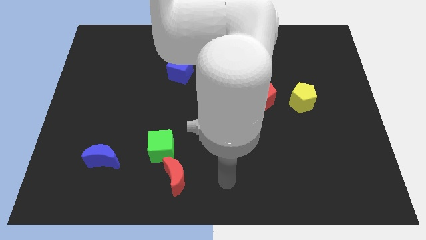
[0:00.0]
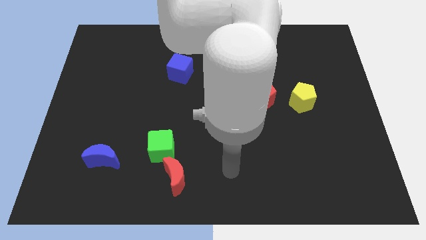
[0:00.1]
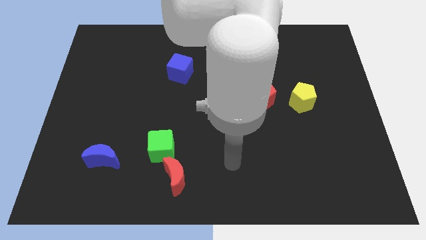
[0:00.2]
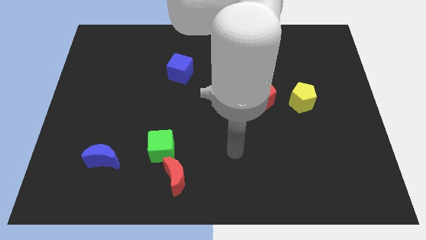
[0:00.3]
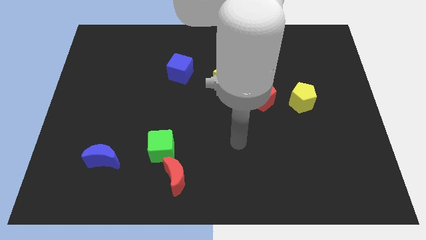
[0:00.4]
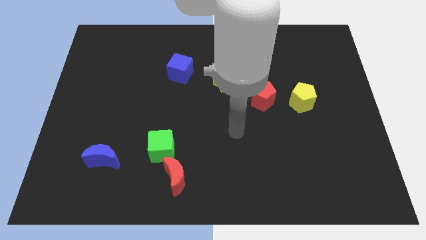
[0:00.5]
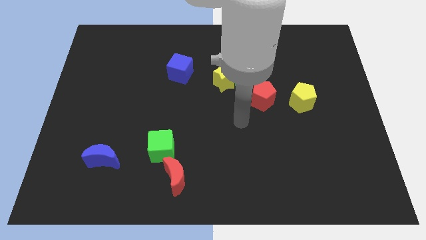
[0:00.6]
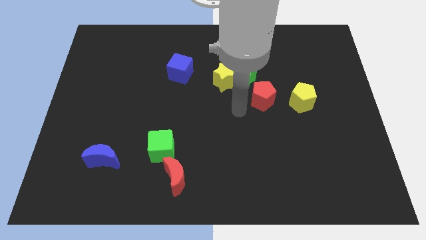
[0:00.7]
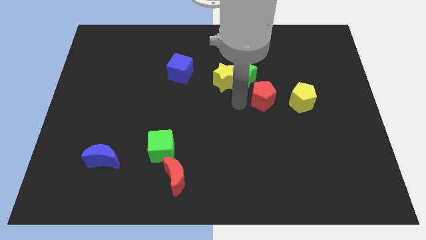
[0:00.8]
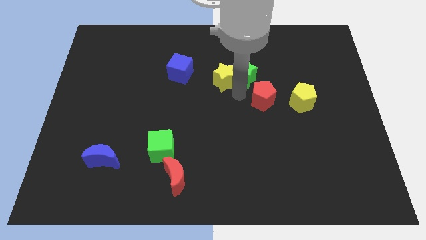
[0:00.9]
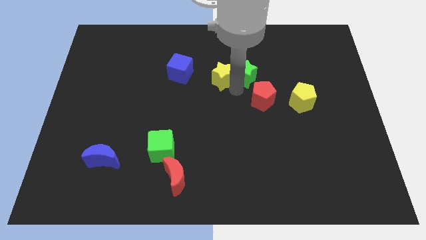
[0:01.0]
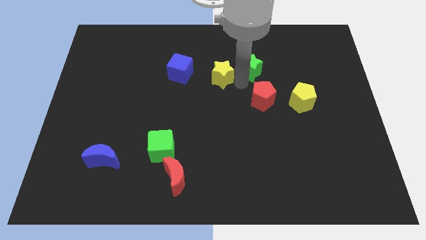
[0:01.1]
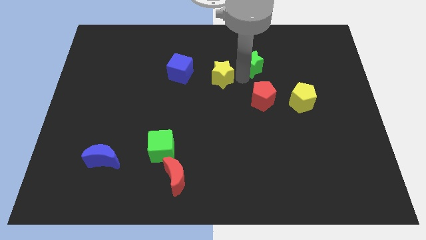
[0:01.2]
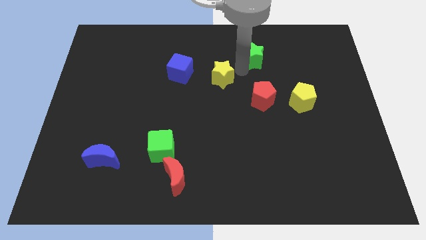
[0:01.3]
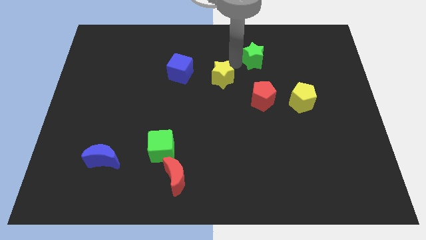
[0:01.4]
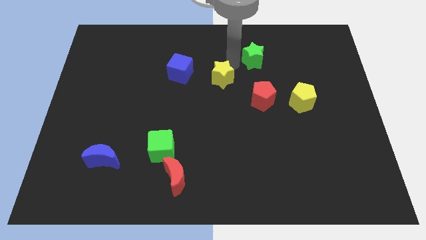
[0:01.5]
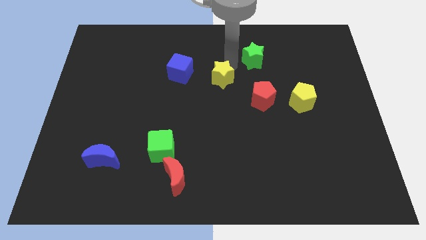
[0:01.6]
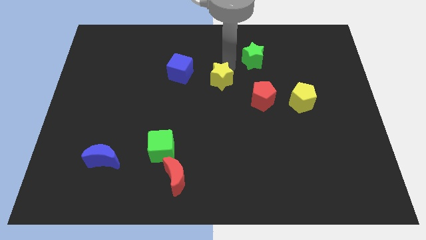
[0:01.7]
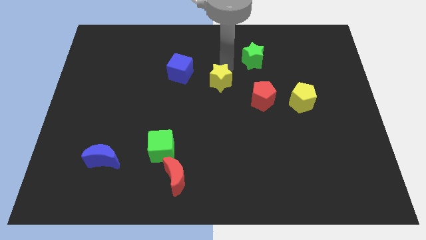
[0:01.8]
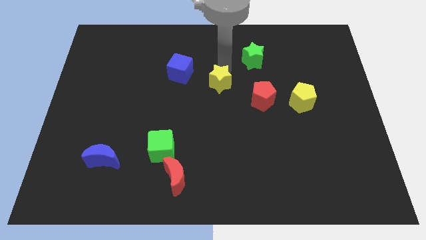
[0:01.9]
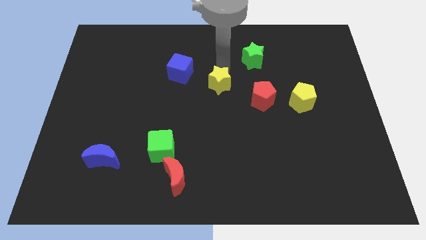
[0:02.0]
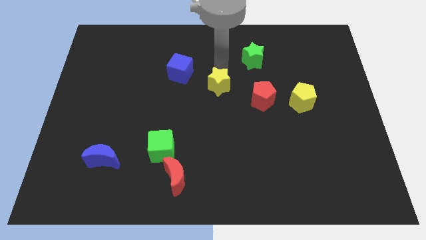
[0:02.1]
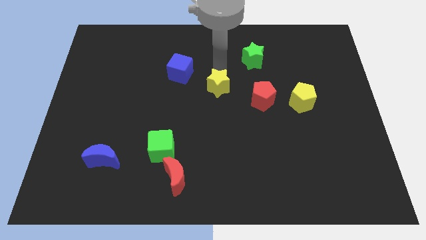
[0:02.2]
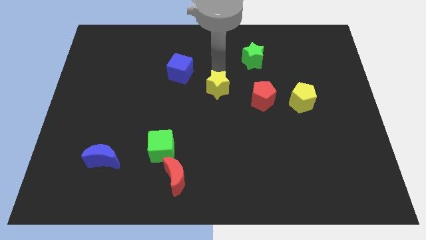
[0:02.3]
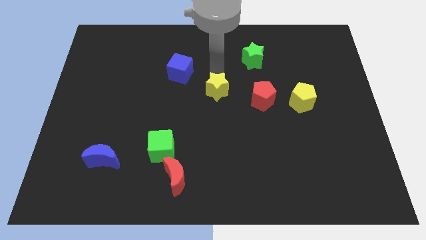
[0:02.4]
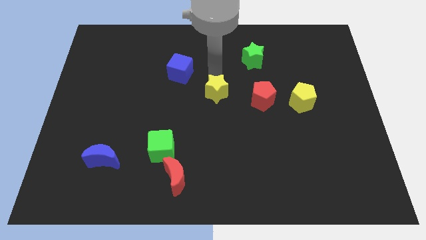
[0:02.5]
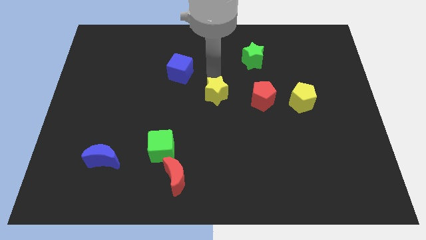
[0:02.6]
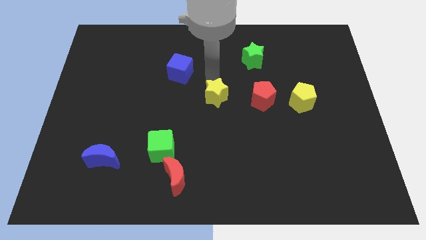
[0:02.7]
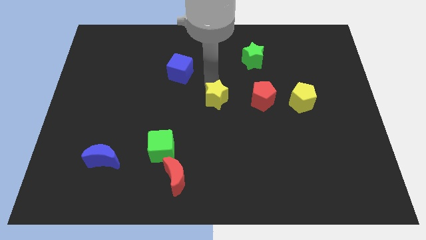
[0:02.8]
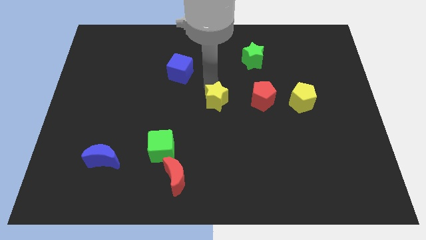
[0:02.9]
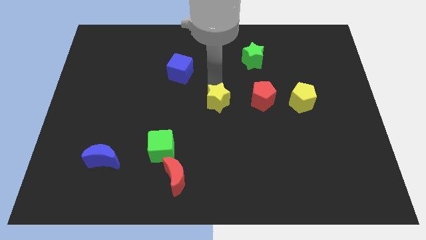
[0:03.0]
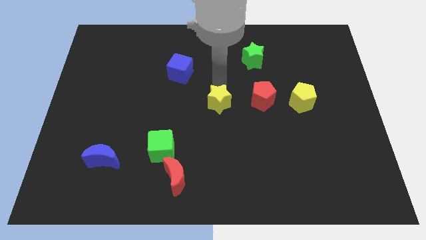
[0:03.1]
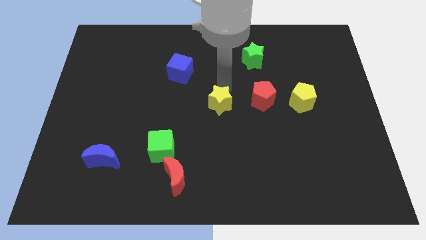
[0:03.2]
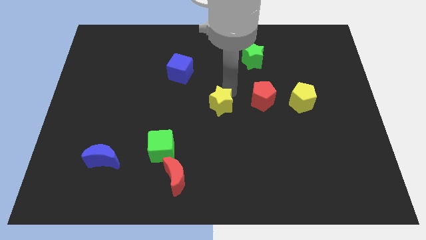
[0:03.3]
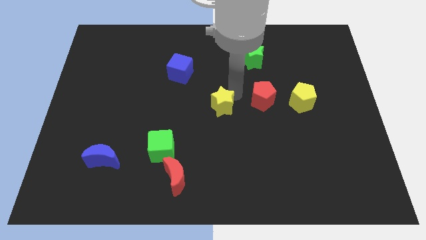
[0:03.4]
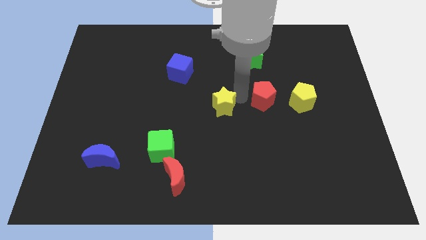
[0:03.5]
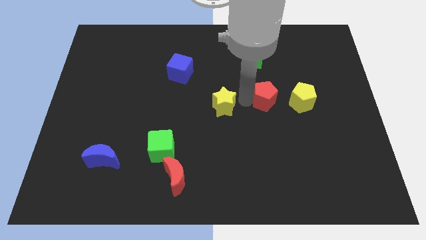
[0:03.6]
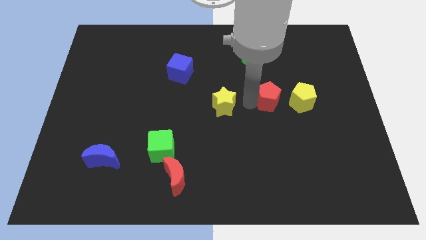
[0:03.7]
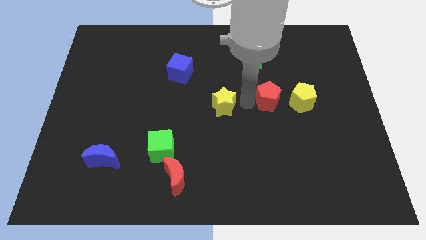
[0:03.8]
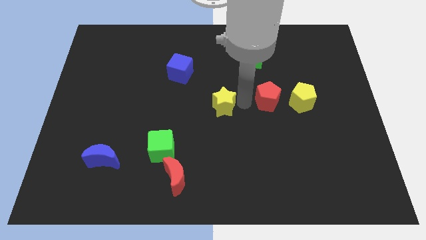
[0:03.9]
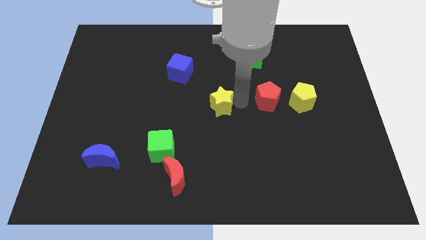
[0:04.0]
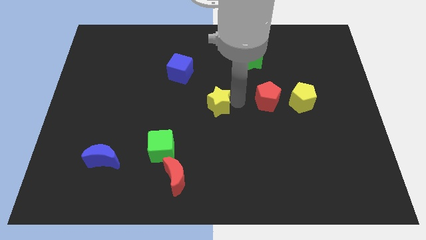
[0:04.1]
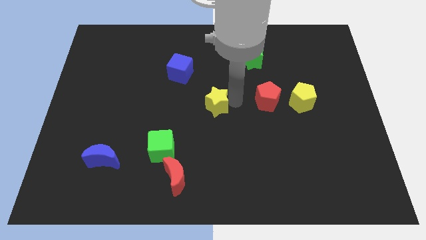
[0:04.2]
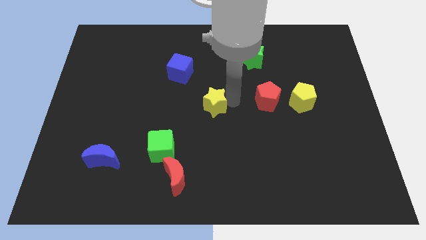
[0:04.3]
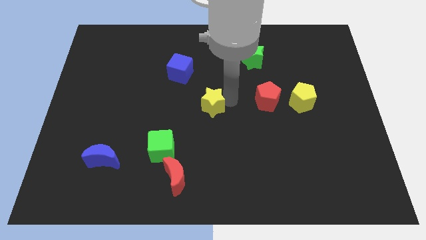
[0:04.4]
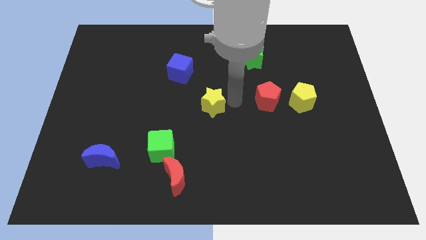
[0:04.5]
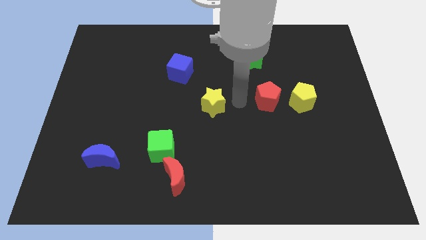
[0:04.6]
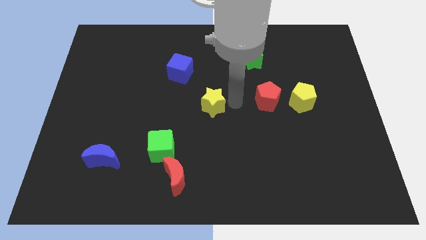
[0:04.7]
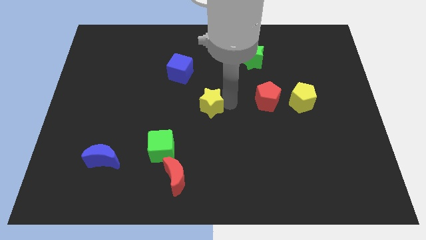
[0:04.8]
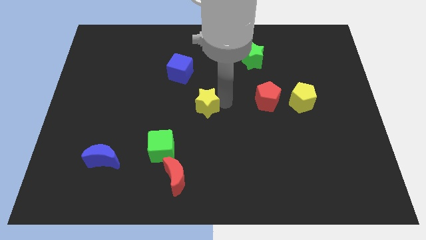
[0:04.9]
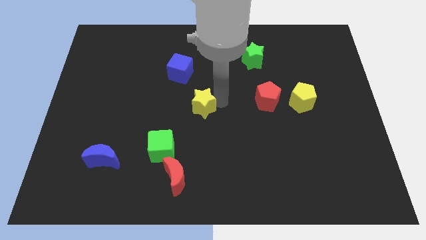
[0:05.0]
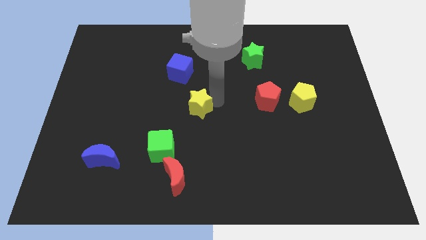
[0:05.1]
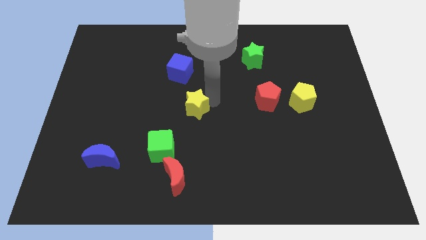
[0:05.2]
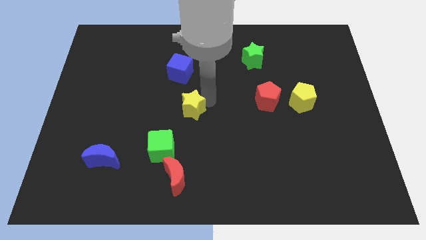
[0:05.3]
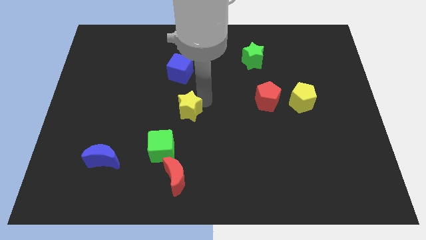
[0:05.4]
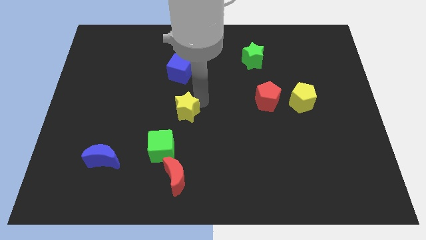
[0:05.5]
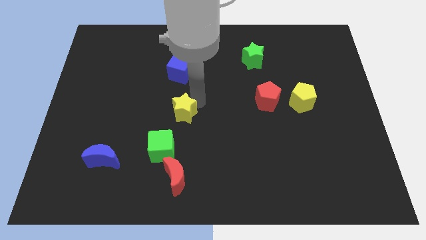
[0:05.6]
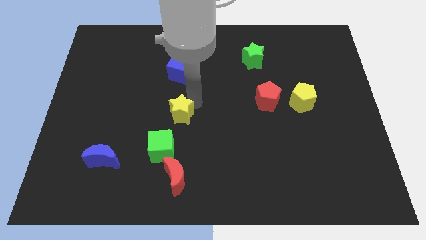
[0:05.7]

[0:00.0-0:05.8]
push the yellow star above the red moon

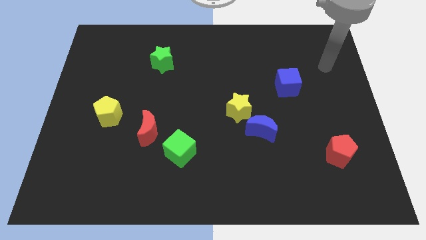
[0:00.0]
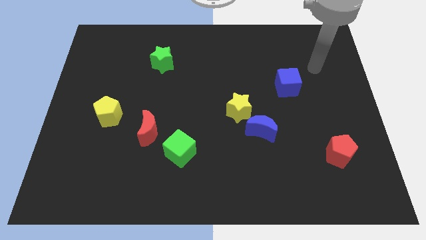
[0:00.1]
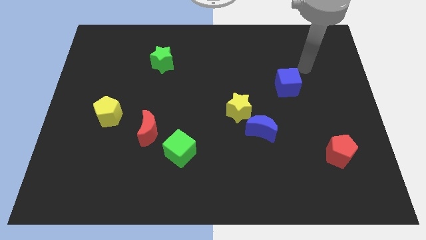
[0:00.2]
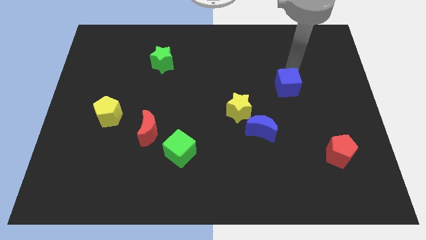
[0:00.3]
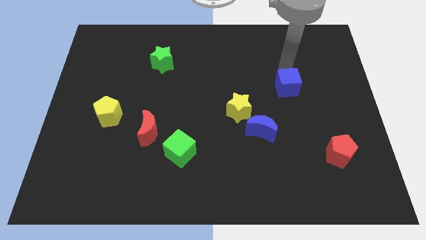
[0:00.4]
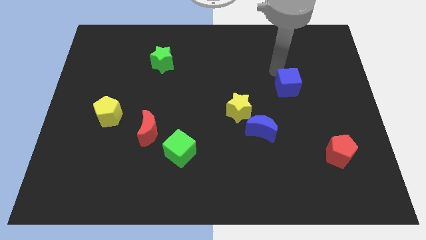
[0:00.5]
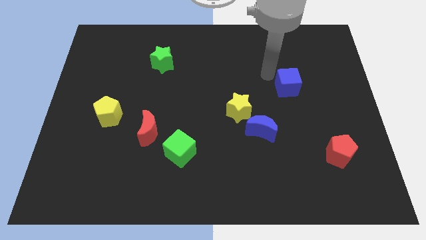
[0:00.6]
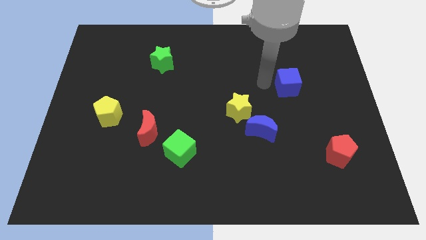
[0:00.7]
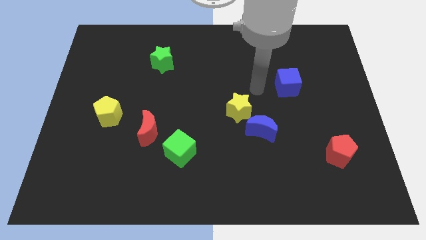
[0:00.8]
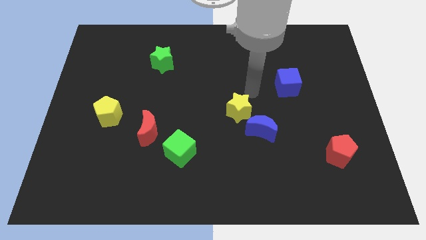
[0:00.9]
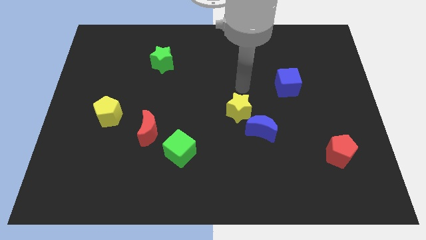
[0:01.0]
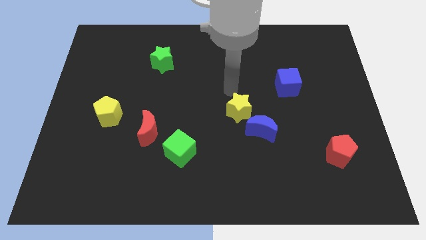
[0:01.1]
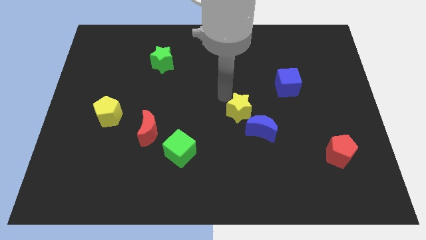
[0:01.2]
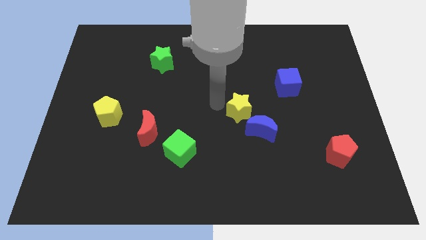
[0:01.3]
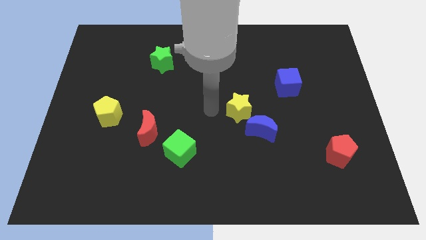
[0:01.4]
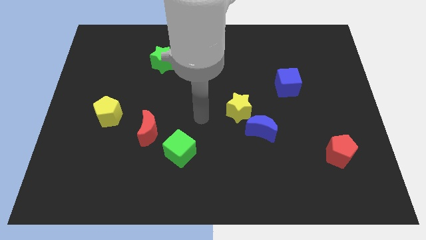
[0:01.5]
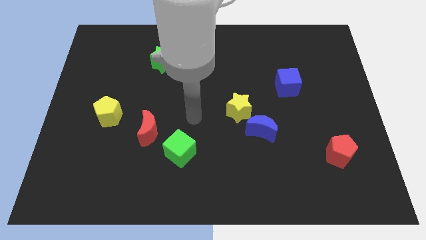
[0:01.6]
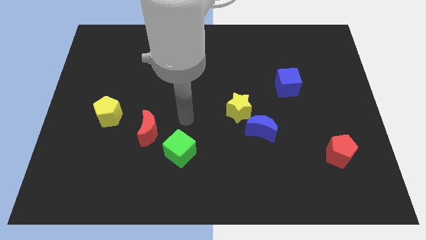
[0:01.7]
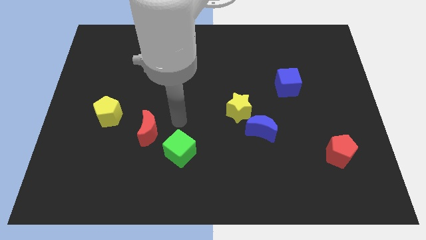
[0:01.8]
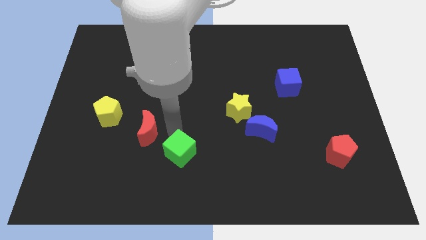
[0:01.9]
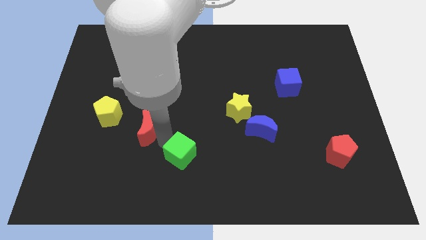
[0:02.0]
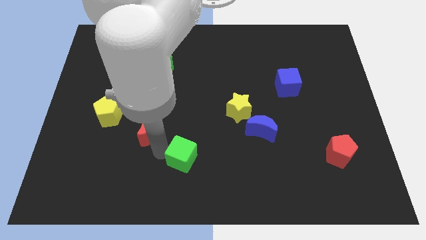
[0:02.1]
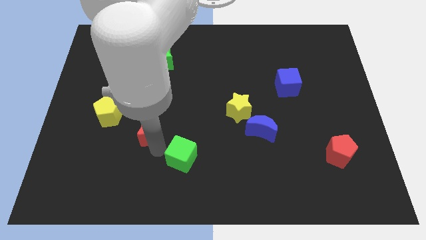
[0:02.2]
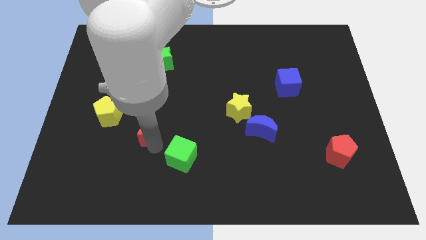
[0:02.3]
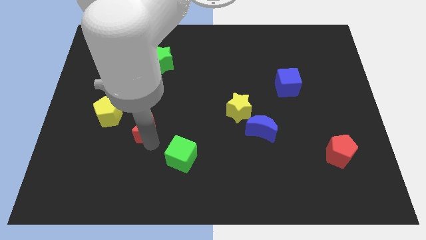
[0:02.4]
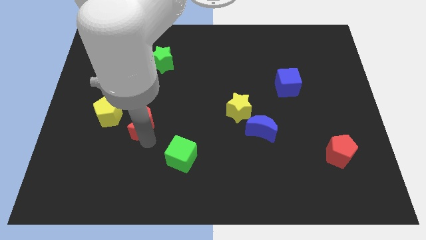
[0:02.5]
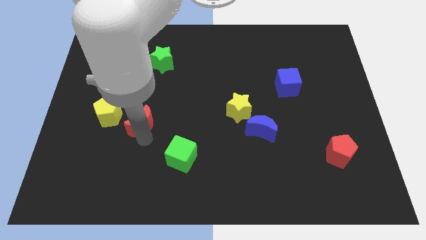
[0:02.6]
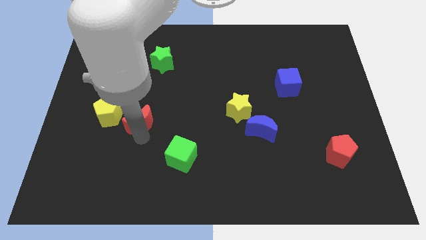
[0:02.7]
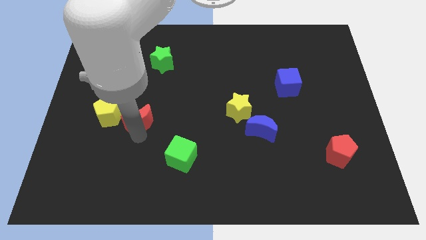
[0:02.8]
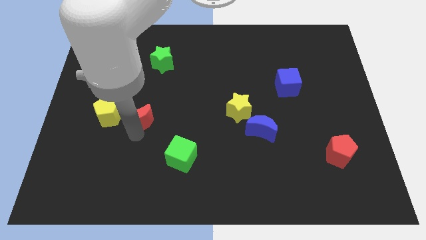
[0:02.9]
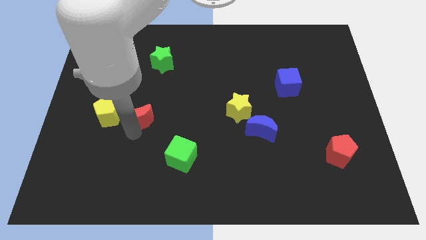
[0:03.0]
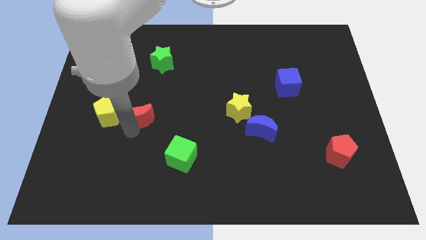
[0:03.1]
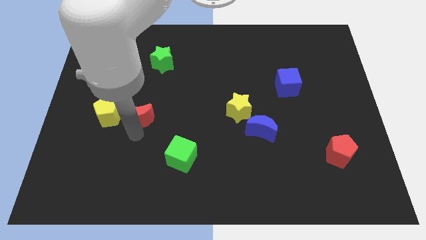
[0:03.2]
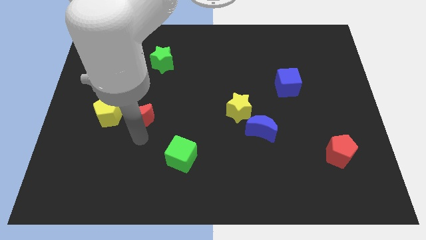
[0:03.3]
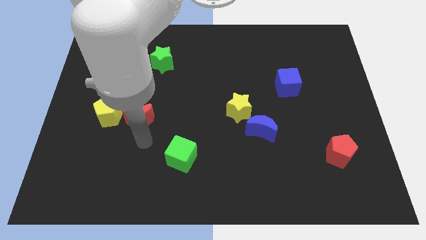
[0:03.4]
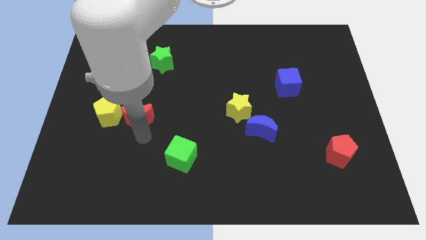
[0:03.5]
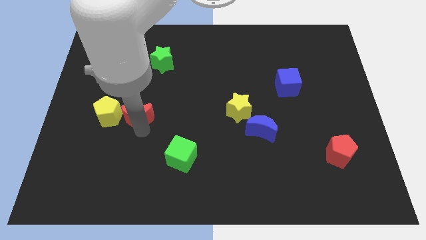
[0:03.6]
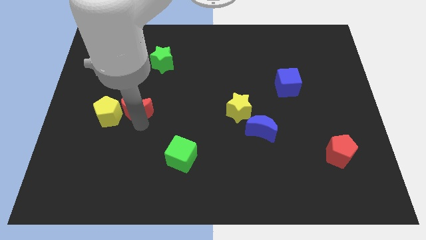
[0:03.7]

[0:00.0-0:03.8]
push the red moon to the top right side of the yellow pentagon
